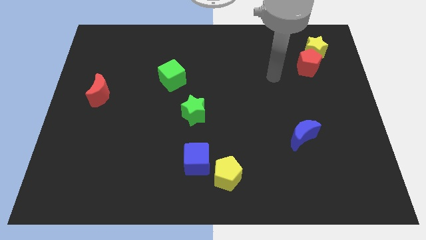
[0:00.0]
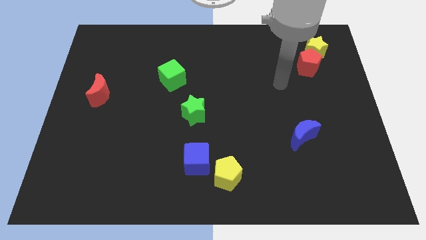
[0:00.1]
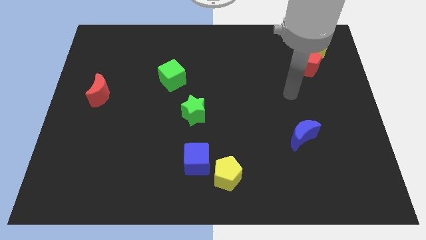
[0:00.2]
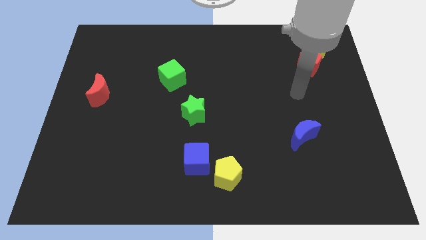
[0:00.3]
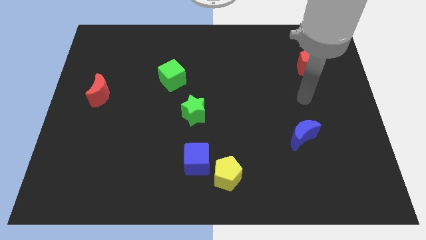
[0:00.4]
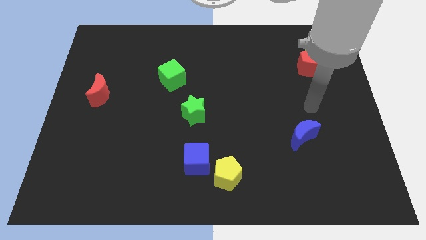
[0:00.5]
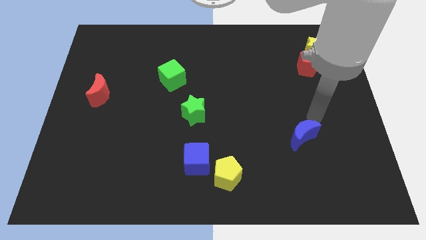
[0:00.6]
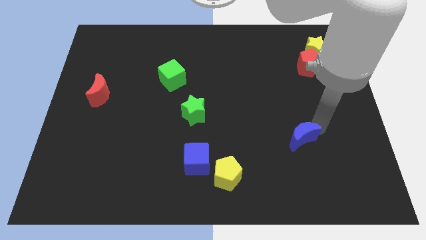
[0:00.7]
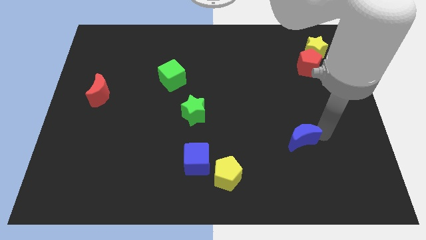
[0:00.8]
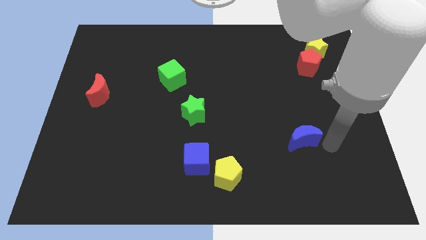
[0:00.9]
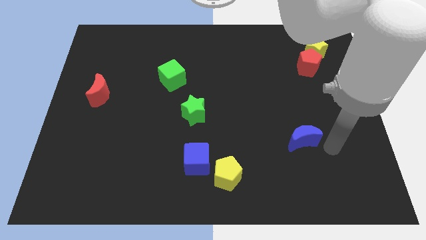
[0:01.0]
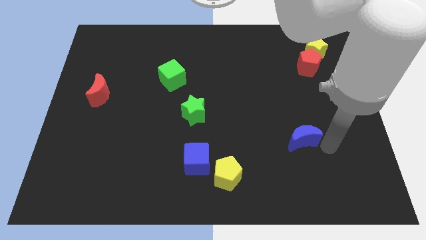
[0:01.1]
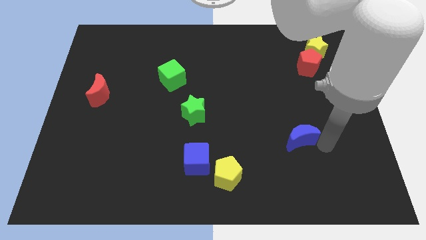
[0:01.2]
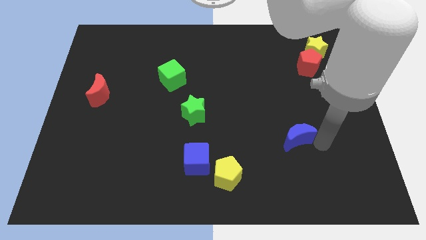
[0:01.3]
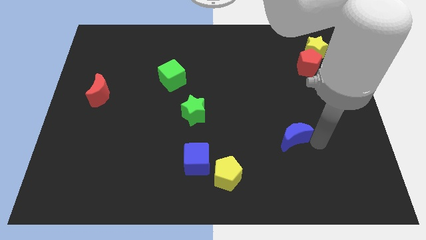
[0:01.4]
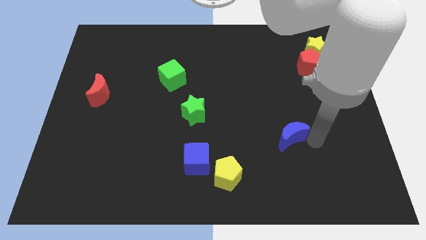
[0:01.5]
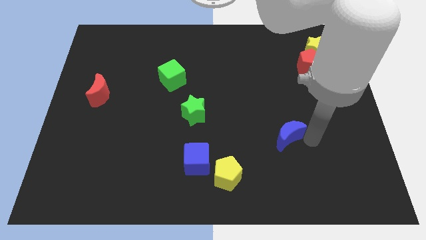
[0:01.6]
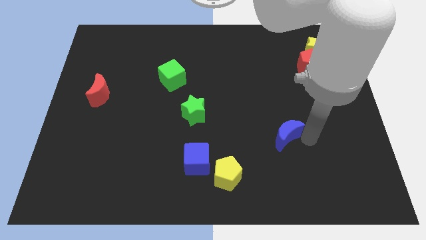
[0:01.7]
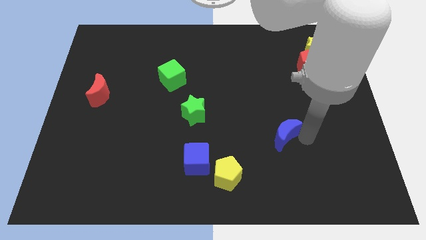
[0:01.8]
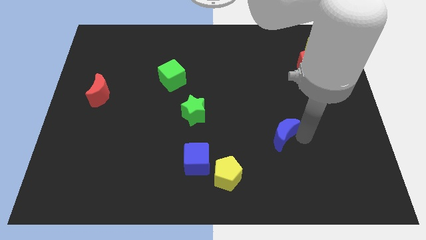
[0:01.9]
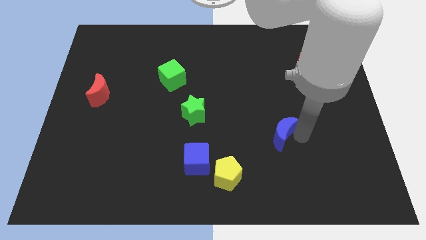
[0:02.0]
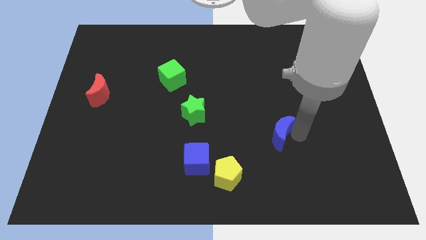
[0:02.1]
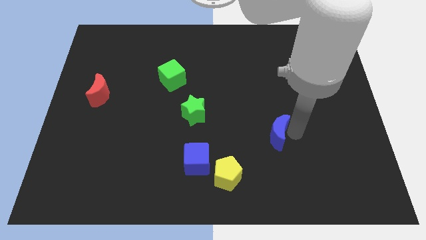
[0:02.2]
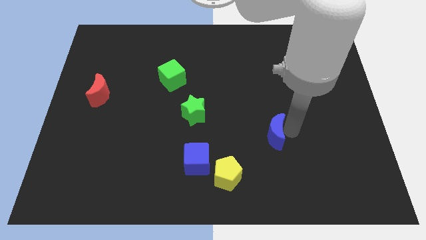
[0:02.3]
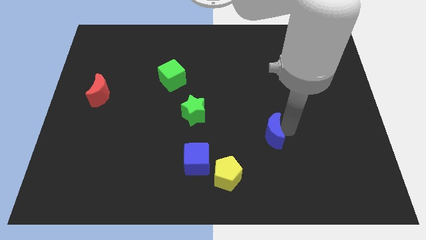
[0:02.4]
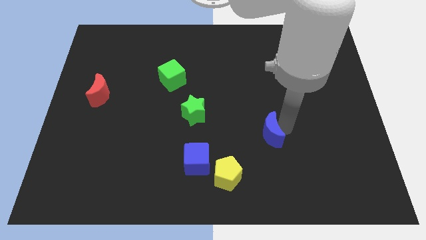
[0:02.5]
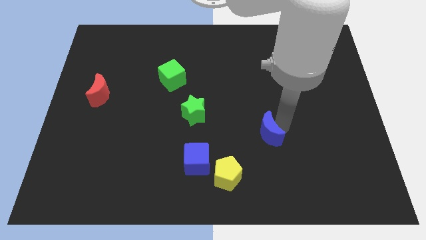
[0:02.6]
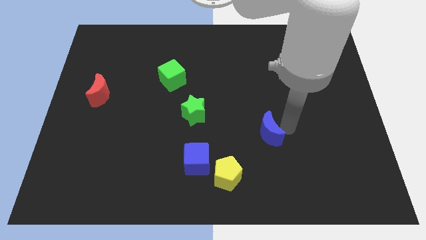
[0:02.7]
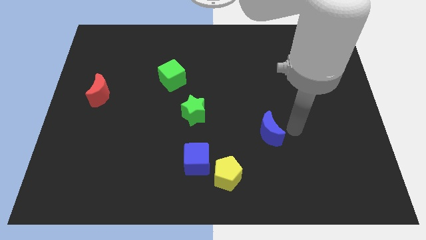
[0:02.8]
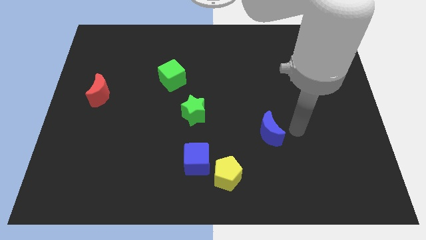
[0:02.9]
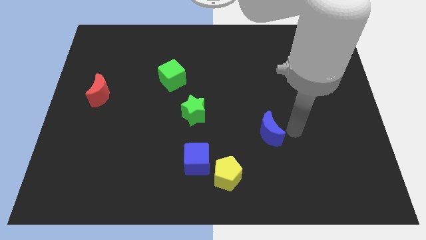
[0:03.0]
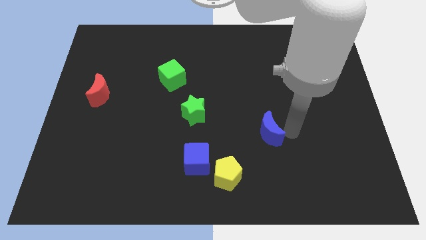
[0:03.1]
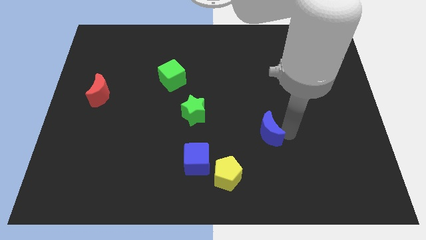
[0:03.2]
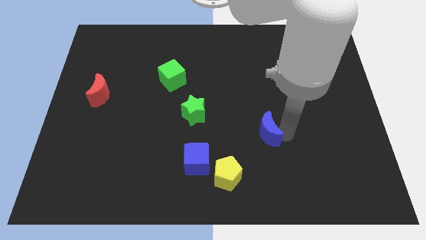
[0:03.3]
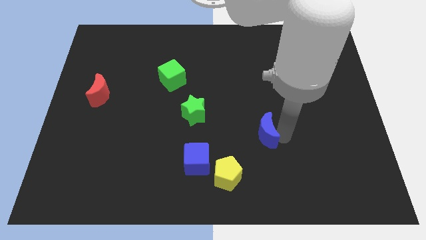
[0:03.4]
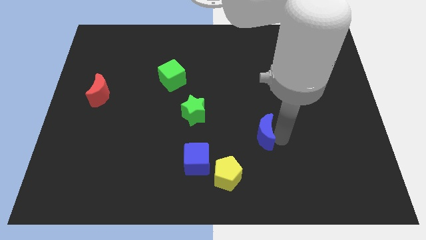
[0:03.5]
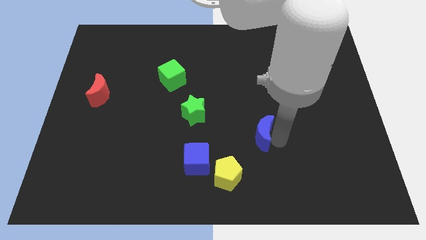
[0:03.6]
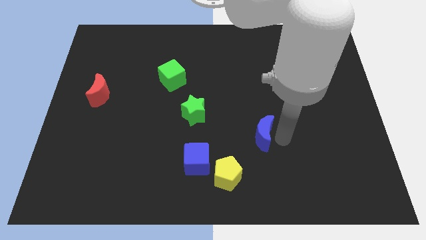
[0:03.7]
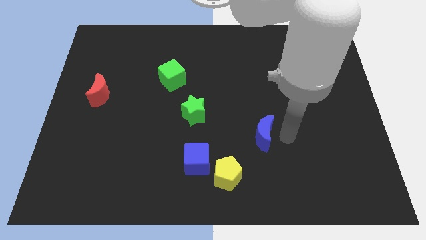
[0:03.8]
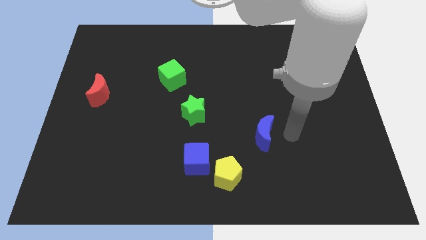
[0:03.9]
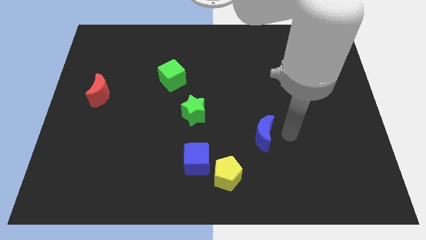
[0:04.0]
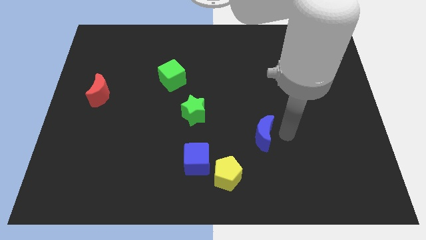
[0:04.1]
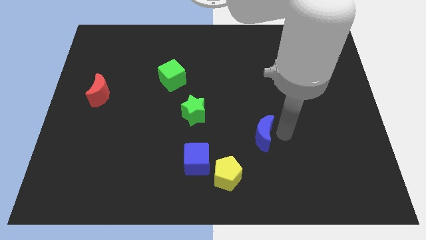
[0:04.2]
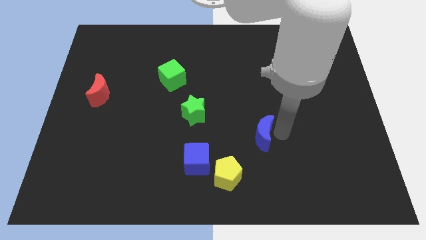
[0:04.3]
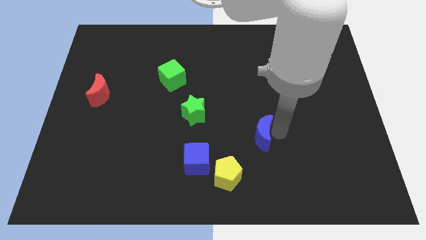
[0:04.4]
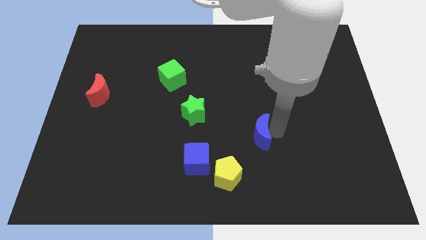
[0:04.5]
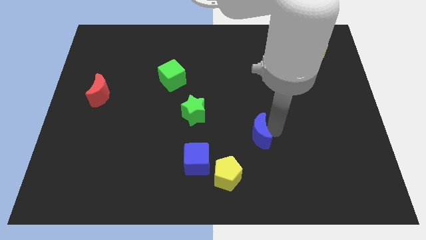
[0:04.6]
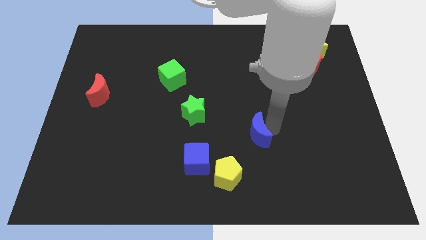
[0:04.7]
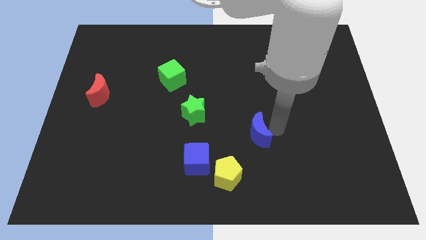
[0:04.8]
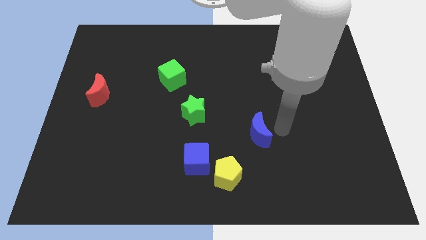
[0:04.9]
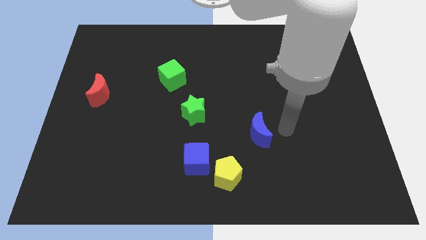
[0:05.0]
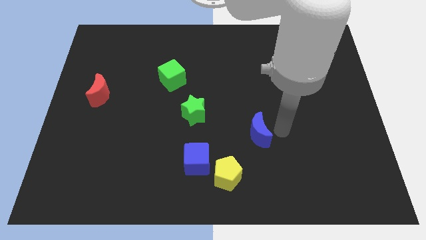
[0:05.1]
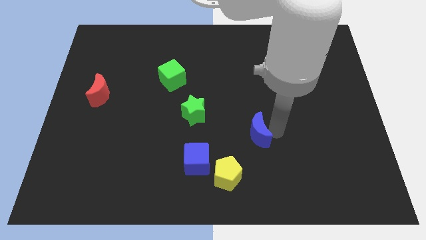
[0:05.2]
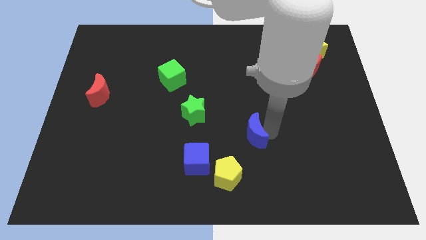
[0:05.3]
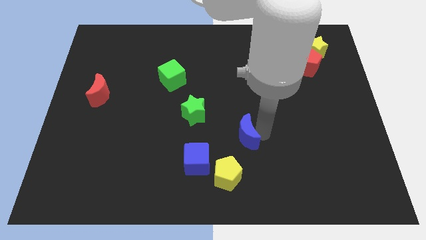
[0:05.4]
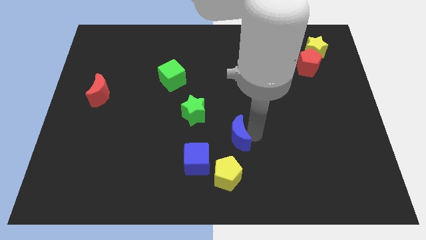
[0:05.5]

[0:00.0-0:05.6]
move the blue moon to the top right side of the blue cube

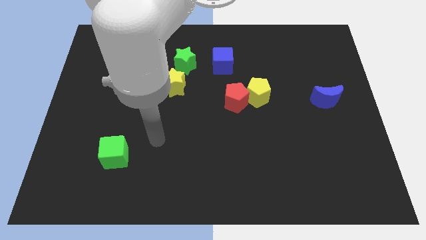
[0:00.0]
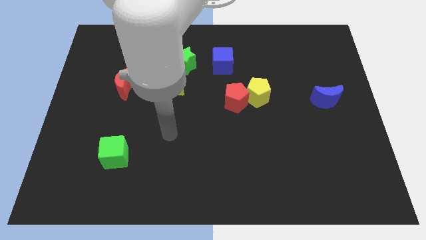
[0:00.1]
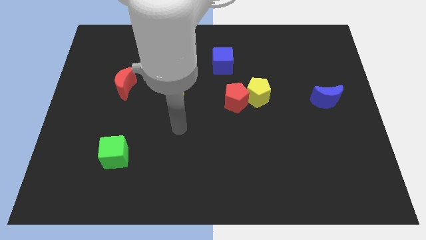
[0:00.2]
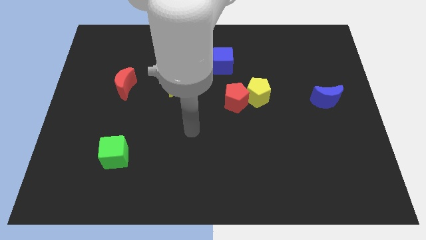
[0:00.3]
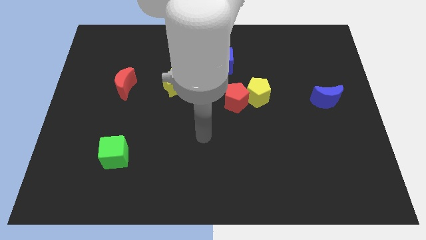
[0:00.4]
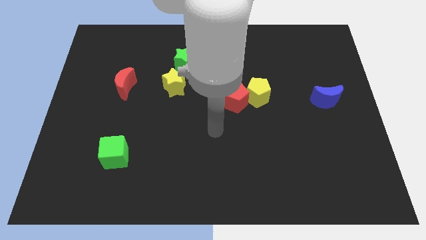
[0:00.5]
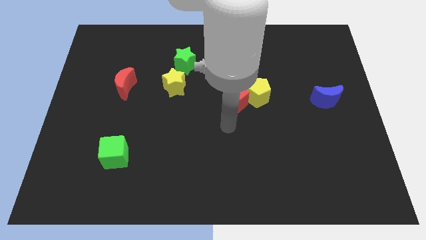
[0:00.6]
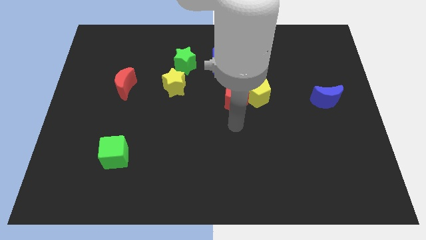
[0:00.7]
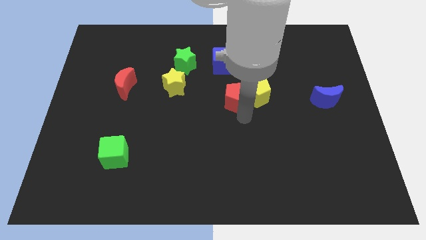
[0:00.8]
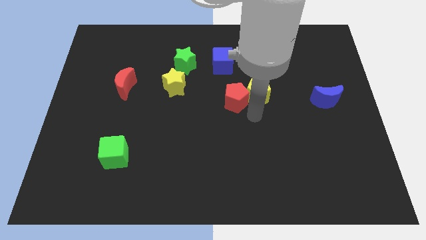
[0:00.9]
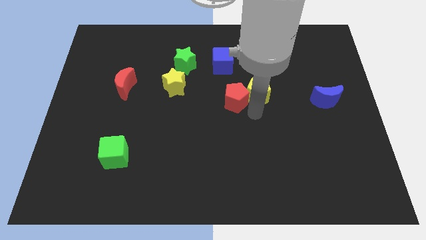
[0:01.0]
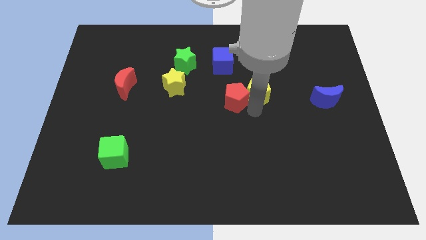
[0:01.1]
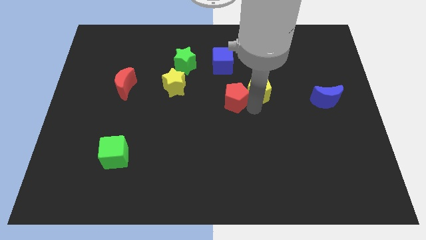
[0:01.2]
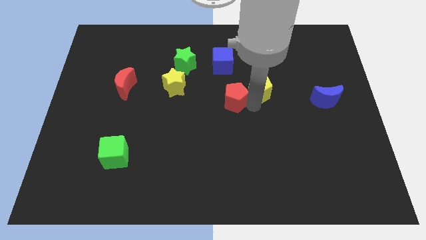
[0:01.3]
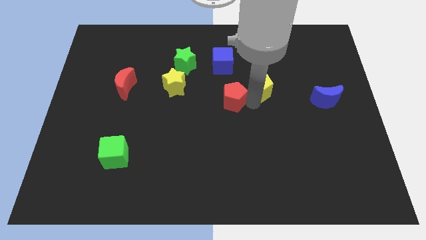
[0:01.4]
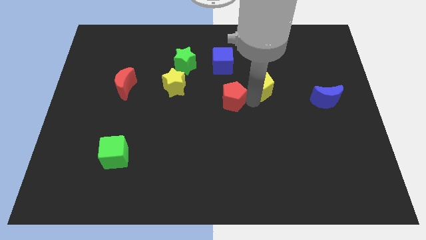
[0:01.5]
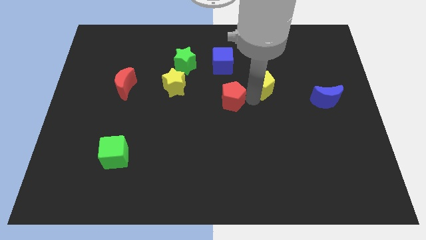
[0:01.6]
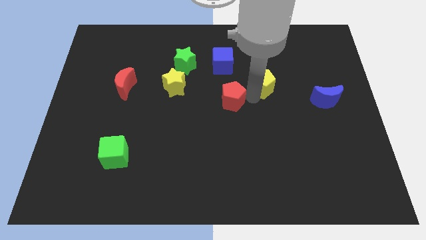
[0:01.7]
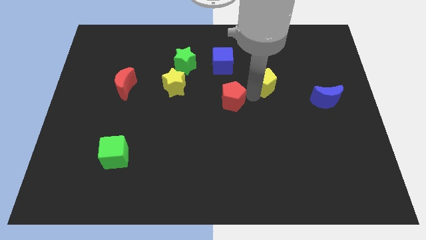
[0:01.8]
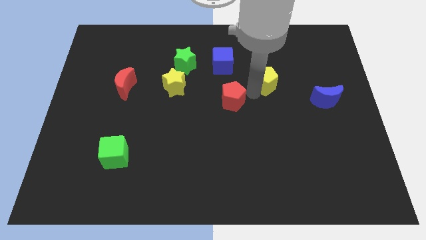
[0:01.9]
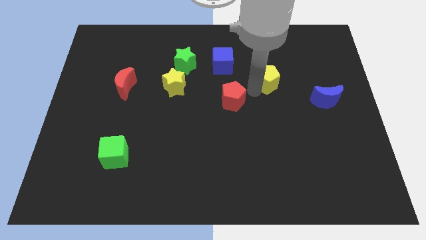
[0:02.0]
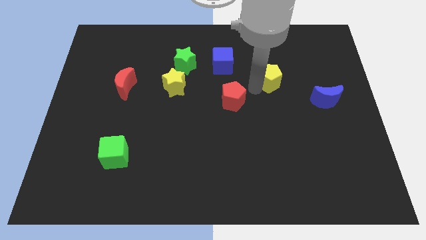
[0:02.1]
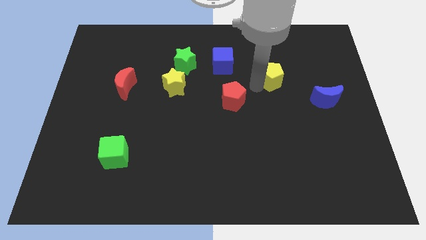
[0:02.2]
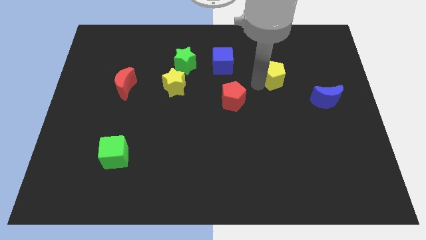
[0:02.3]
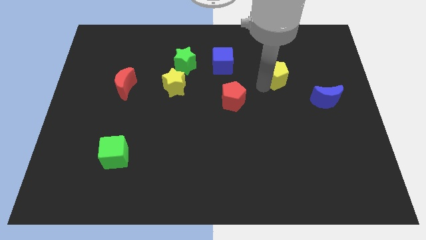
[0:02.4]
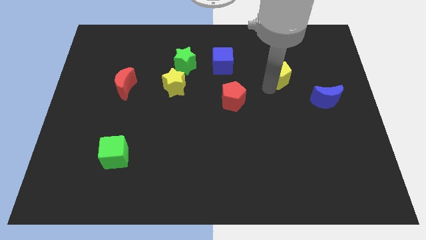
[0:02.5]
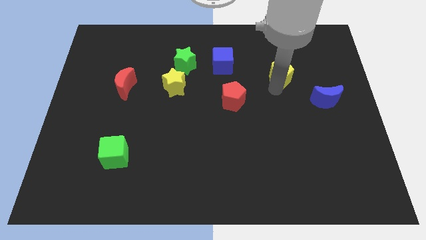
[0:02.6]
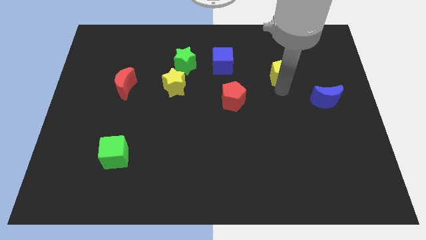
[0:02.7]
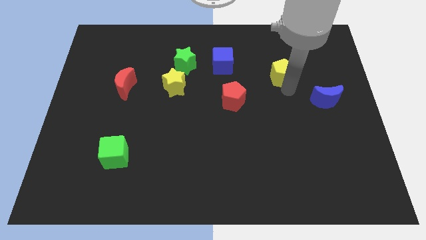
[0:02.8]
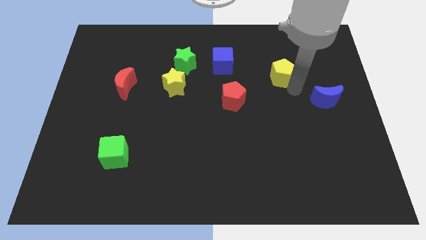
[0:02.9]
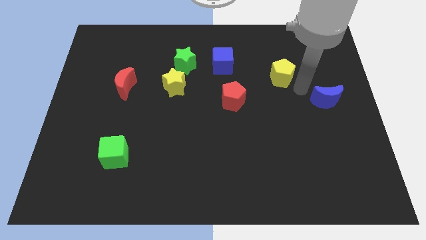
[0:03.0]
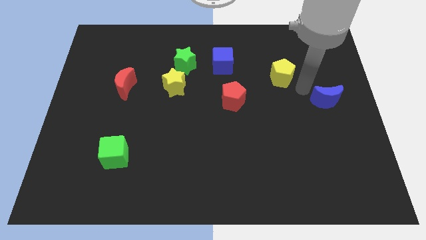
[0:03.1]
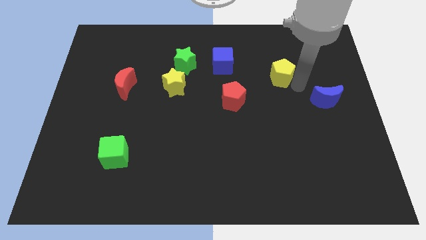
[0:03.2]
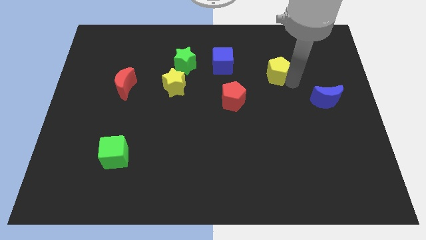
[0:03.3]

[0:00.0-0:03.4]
slide the yellow pentagon to the right of the blue cube
